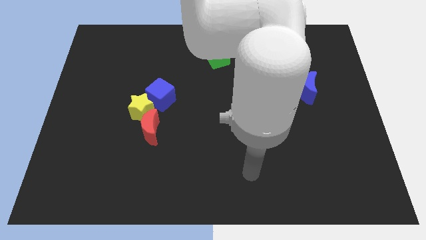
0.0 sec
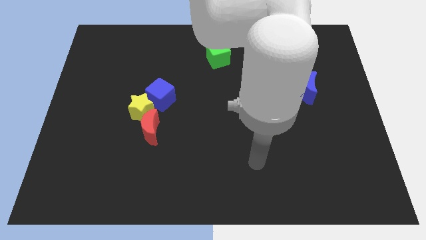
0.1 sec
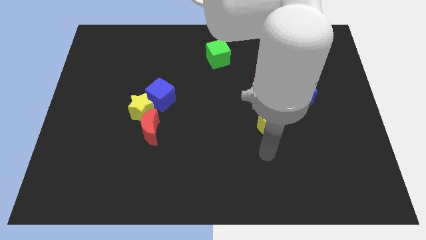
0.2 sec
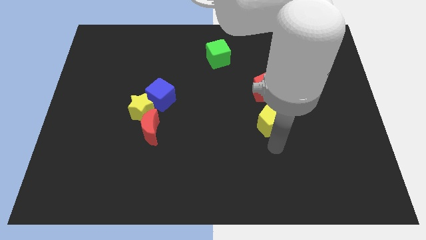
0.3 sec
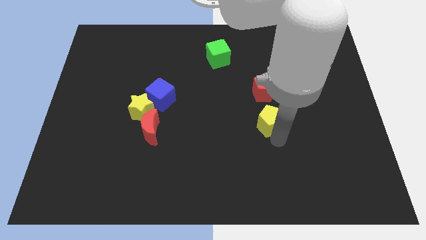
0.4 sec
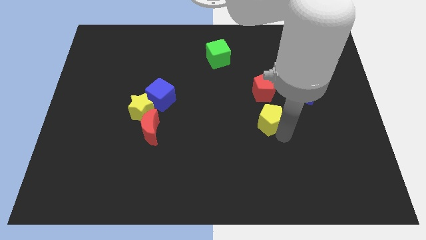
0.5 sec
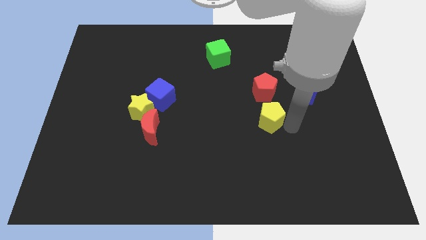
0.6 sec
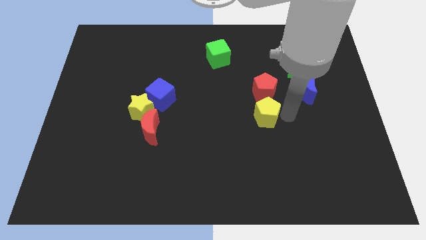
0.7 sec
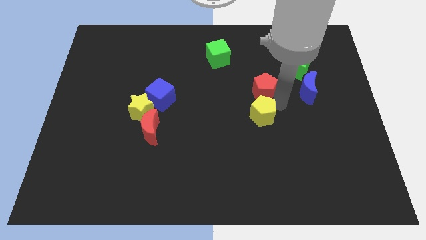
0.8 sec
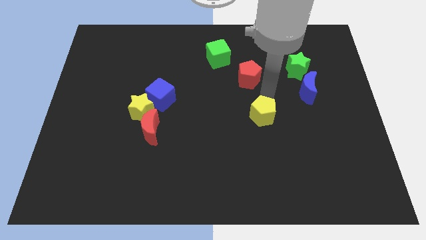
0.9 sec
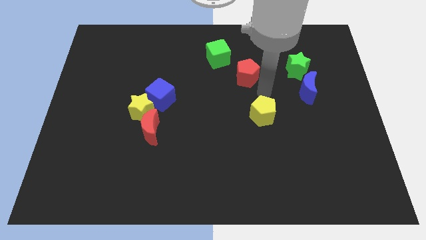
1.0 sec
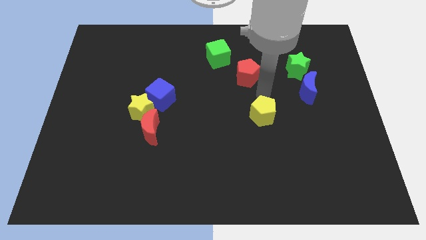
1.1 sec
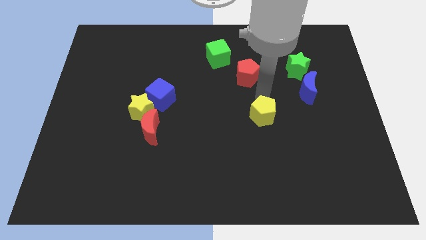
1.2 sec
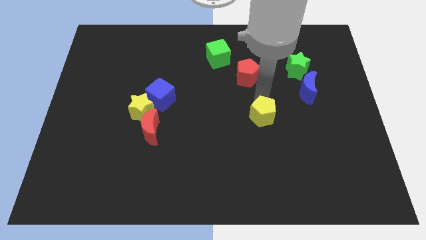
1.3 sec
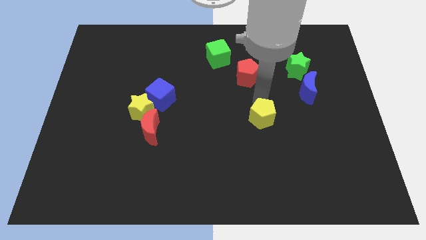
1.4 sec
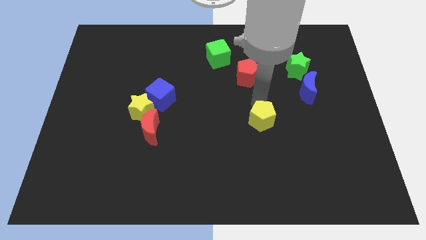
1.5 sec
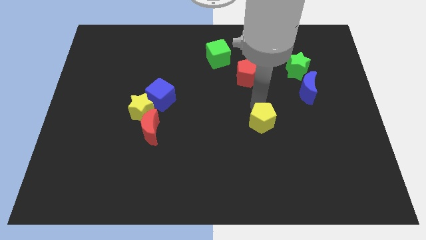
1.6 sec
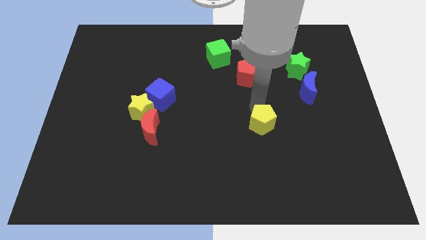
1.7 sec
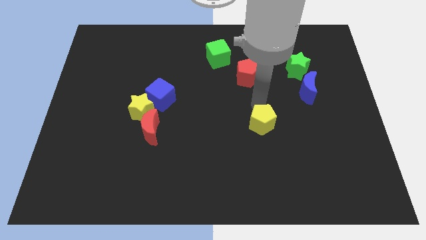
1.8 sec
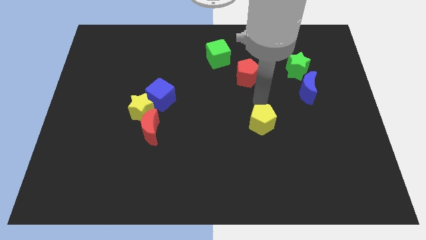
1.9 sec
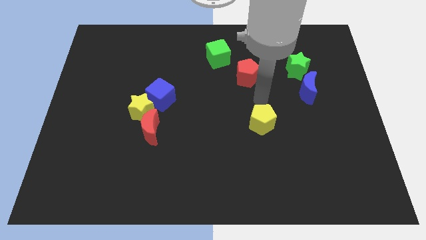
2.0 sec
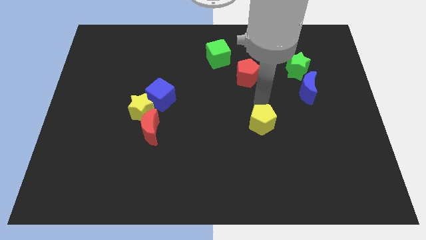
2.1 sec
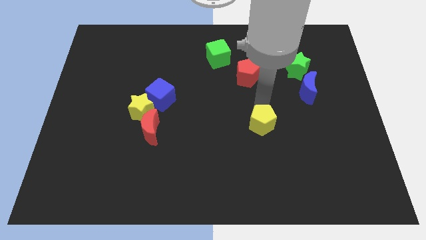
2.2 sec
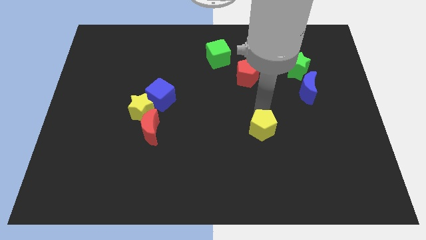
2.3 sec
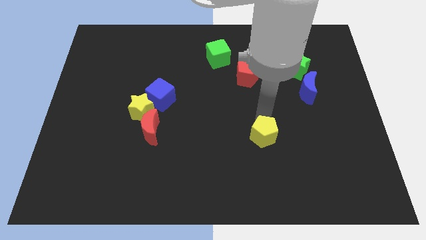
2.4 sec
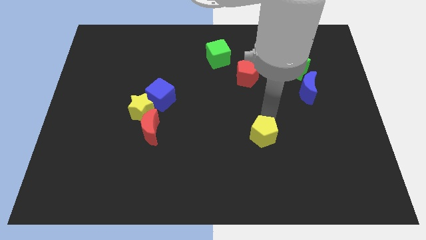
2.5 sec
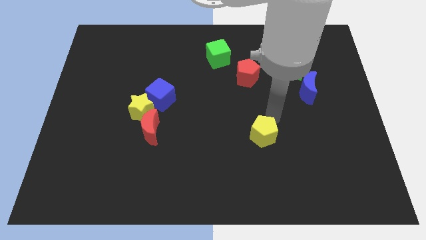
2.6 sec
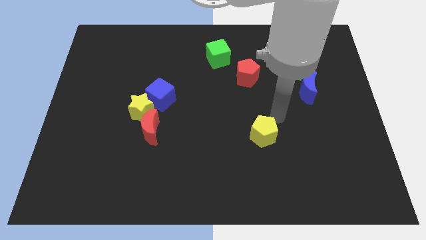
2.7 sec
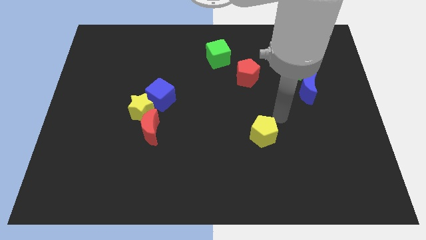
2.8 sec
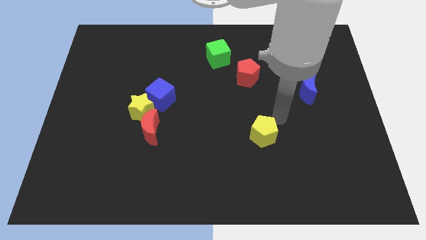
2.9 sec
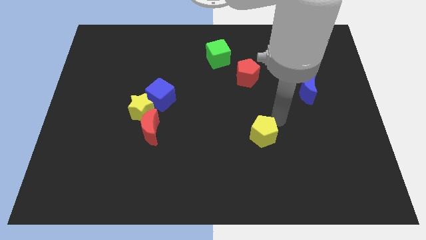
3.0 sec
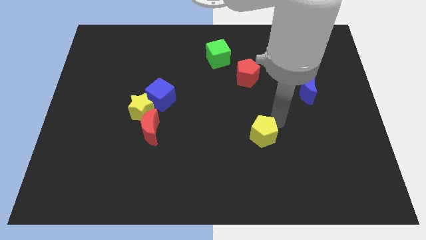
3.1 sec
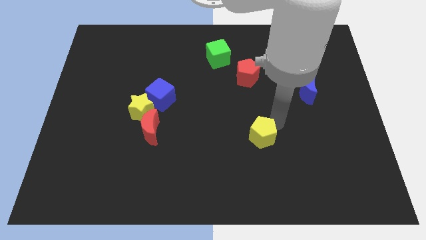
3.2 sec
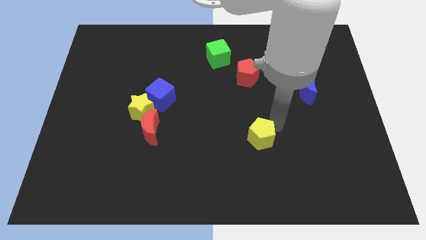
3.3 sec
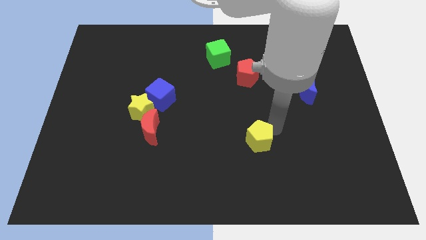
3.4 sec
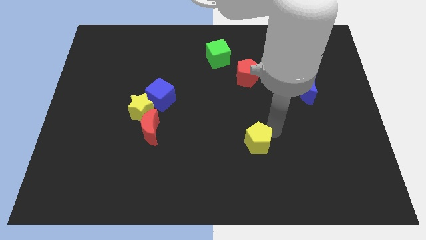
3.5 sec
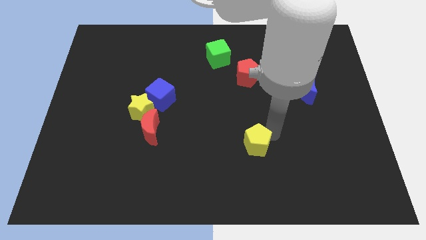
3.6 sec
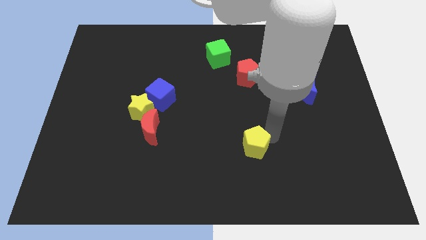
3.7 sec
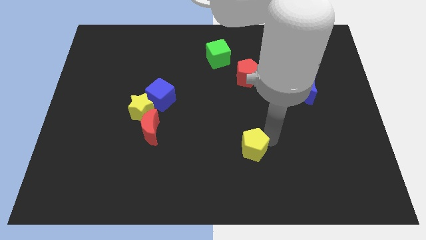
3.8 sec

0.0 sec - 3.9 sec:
slide the yellow pentagon somewhat downwards and to the left

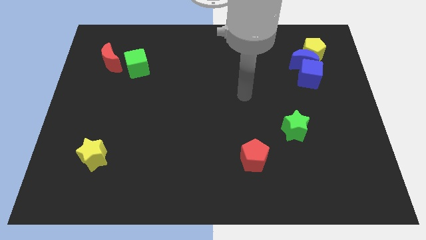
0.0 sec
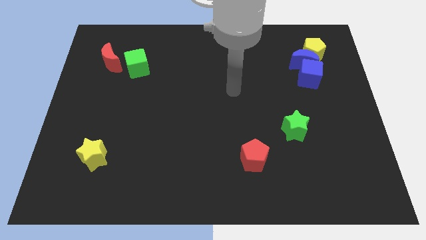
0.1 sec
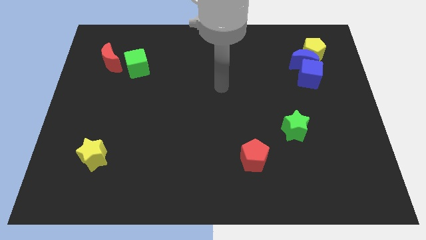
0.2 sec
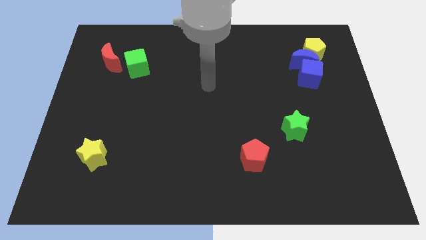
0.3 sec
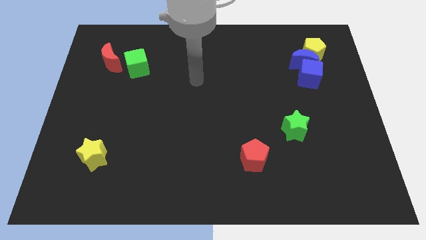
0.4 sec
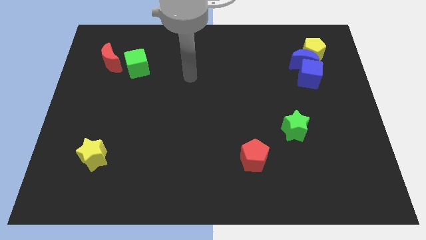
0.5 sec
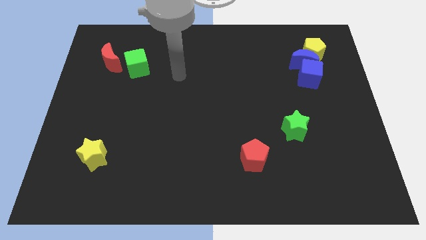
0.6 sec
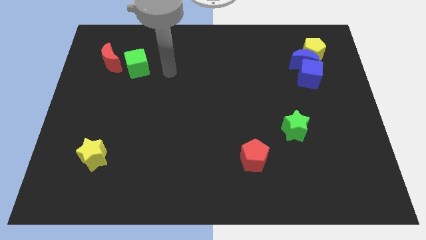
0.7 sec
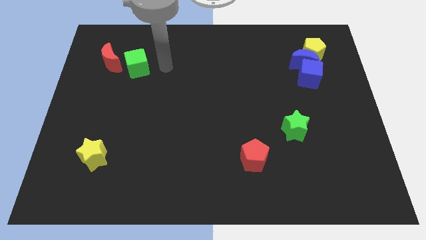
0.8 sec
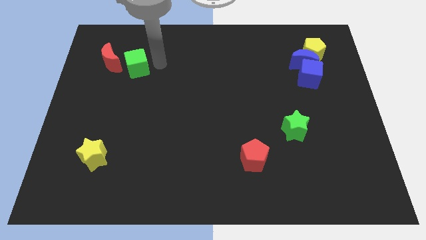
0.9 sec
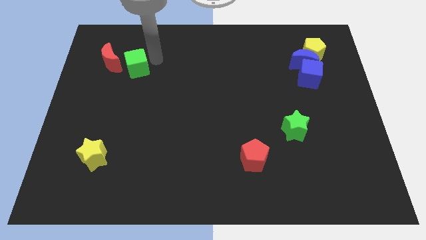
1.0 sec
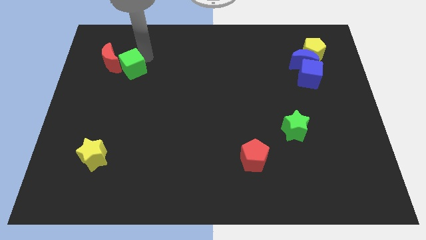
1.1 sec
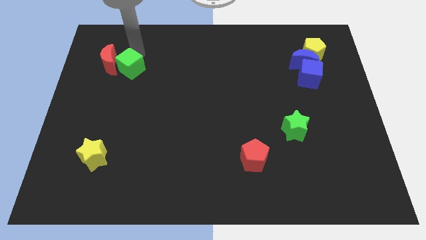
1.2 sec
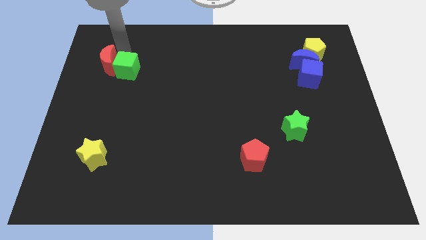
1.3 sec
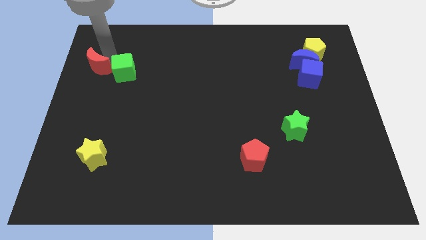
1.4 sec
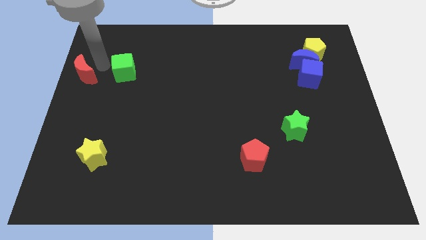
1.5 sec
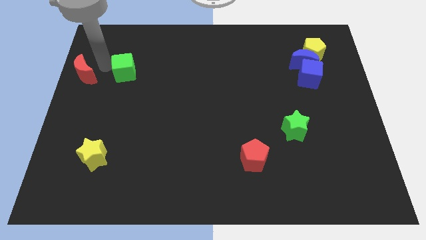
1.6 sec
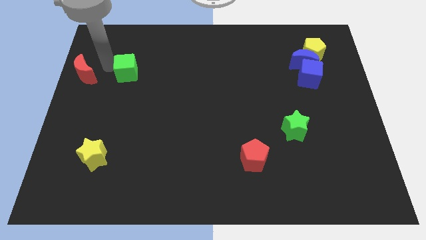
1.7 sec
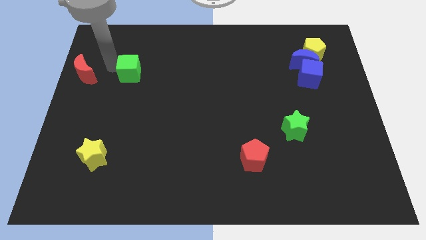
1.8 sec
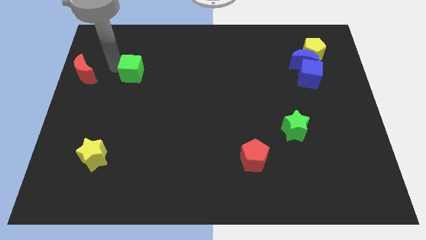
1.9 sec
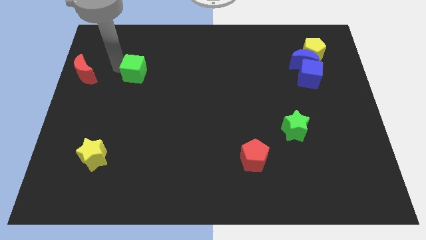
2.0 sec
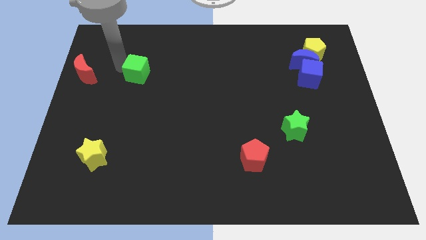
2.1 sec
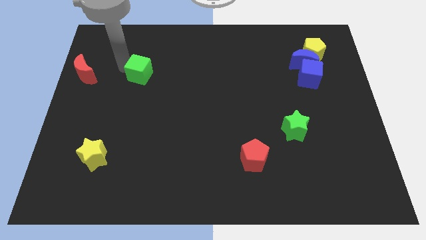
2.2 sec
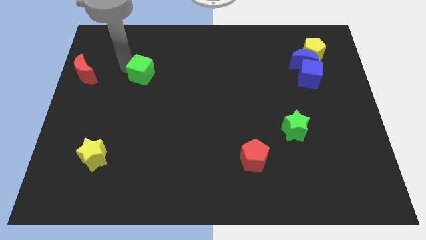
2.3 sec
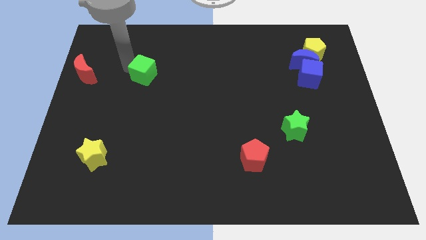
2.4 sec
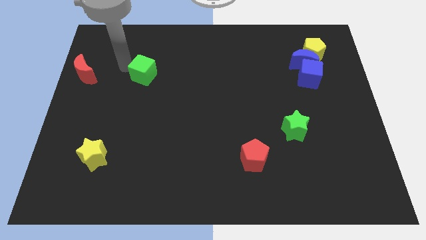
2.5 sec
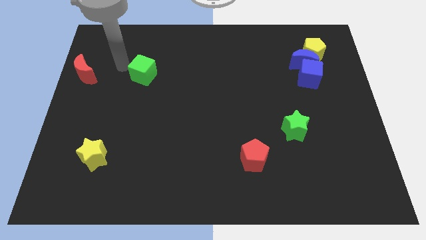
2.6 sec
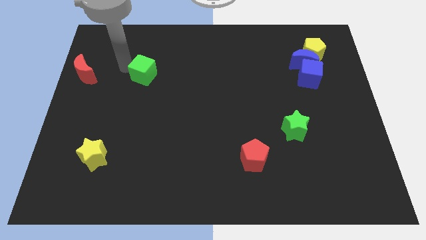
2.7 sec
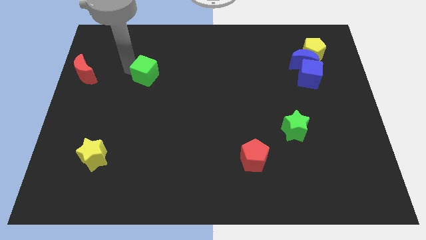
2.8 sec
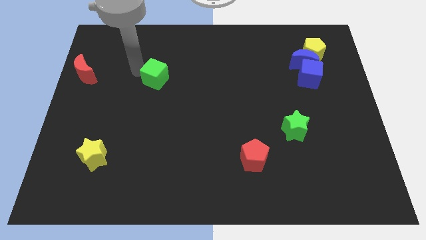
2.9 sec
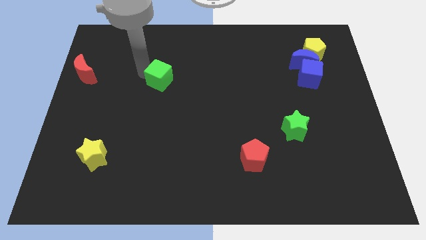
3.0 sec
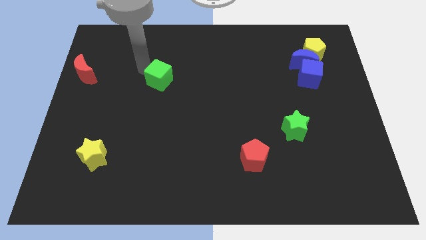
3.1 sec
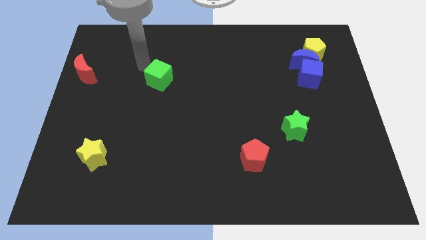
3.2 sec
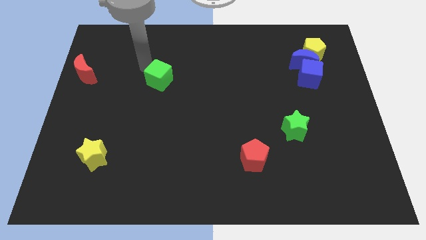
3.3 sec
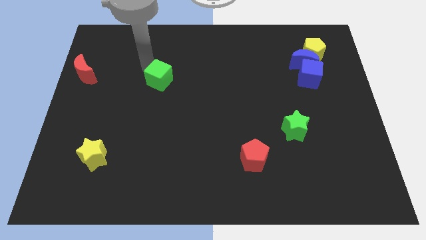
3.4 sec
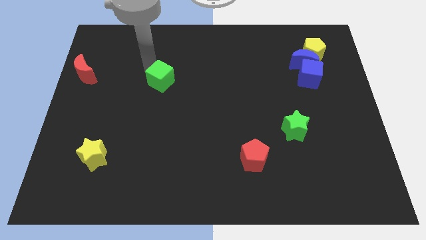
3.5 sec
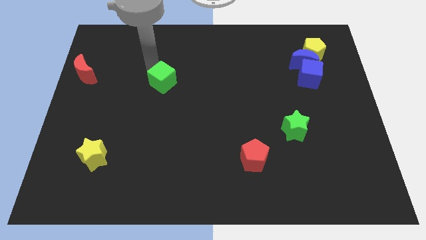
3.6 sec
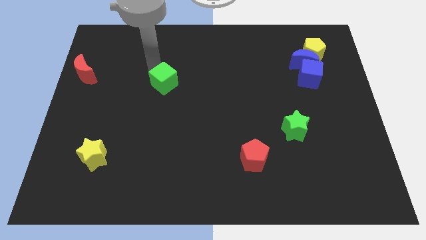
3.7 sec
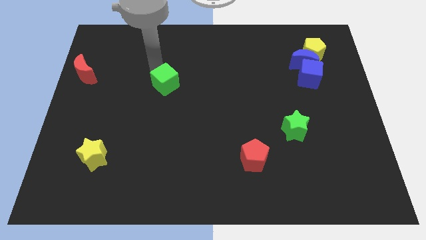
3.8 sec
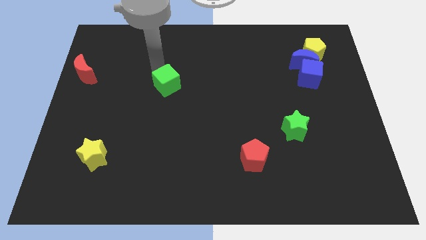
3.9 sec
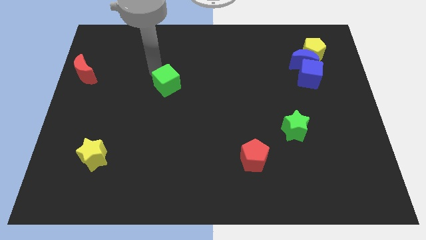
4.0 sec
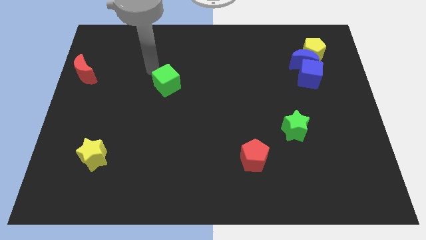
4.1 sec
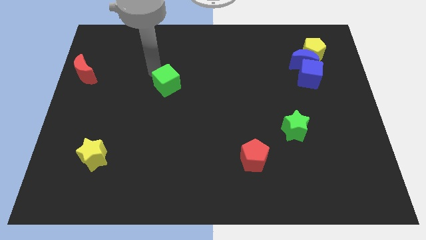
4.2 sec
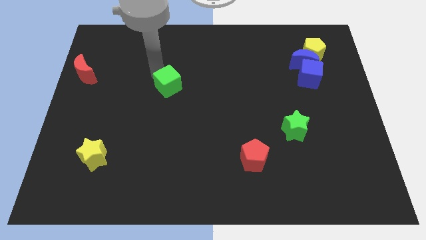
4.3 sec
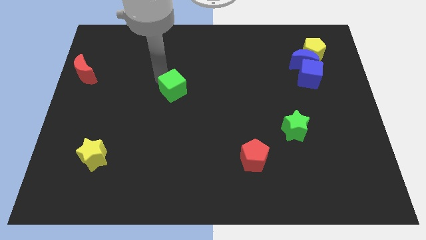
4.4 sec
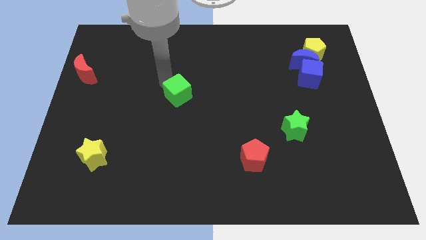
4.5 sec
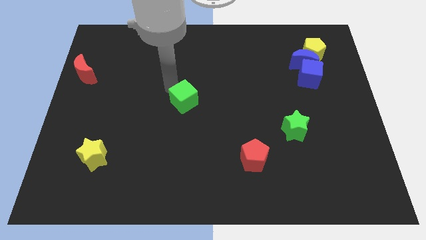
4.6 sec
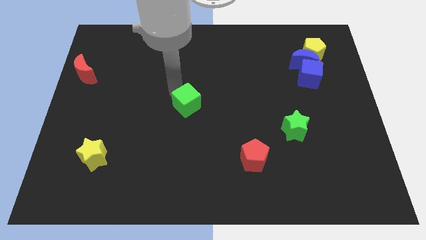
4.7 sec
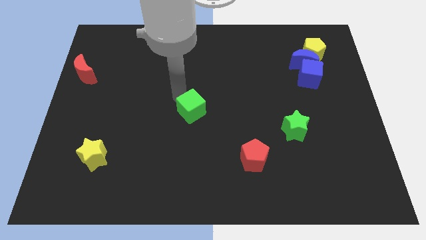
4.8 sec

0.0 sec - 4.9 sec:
push the green cube downwards and right
